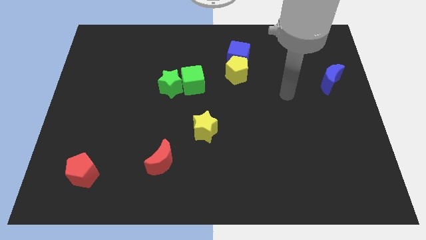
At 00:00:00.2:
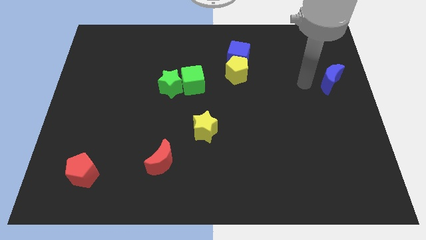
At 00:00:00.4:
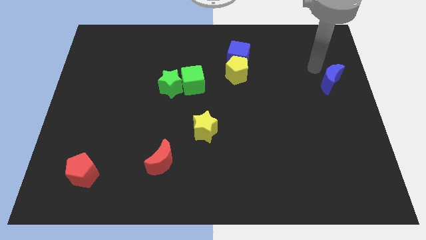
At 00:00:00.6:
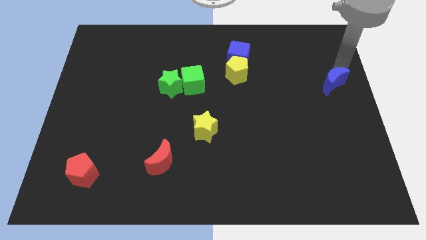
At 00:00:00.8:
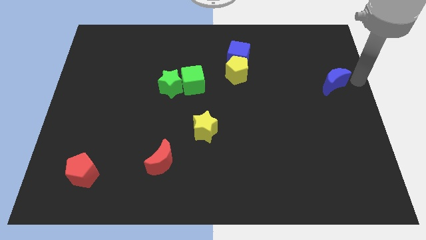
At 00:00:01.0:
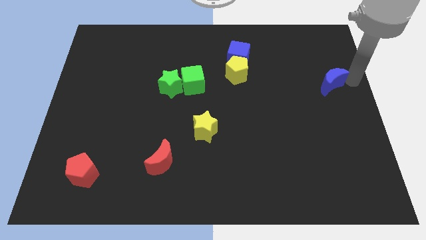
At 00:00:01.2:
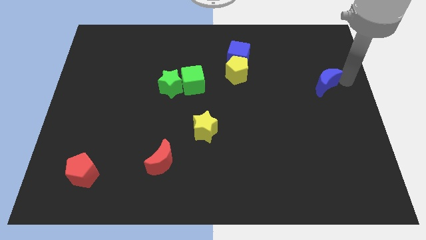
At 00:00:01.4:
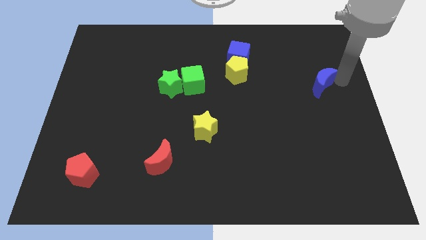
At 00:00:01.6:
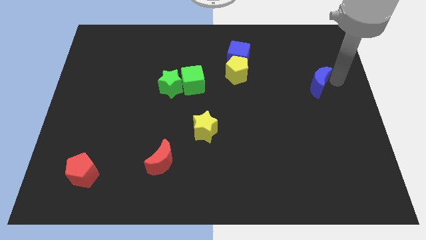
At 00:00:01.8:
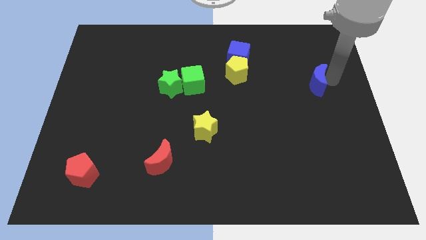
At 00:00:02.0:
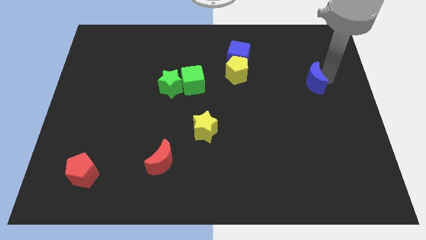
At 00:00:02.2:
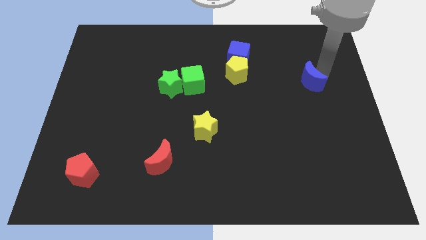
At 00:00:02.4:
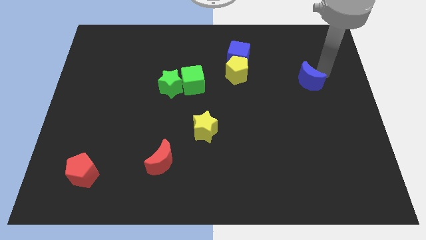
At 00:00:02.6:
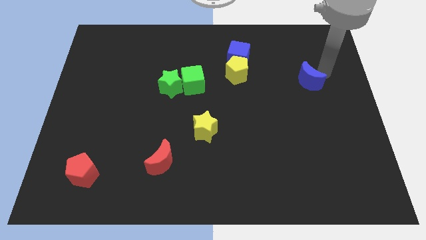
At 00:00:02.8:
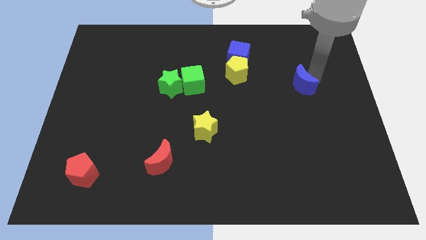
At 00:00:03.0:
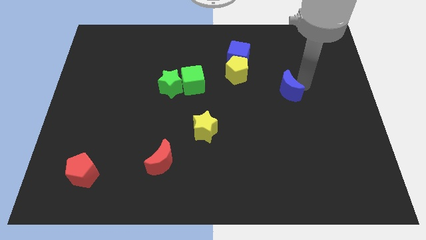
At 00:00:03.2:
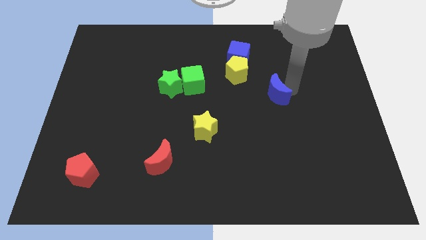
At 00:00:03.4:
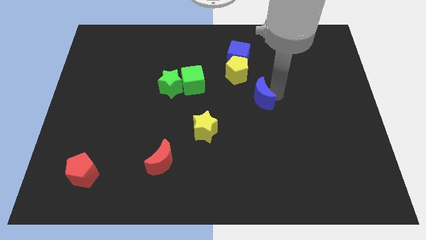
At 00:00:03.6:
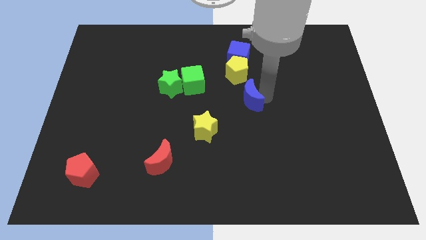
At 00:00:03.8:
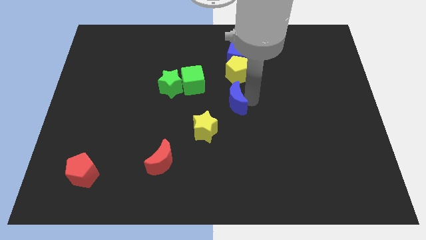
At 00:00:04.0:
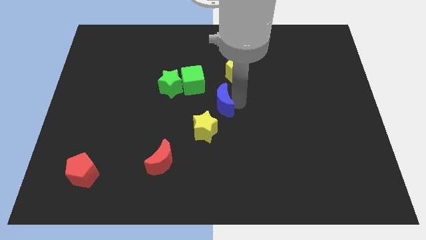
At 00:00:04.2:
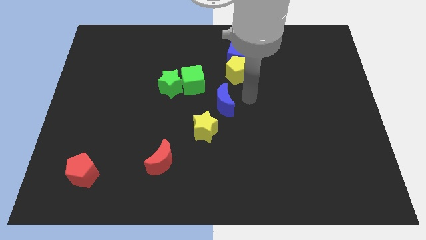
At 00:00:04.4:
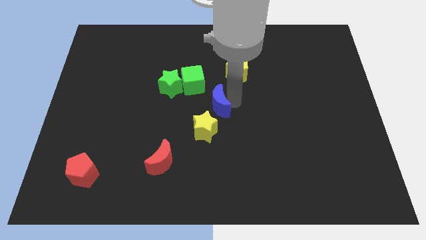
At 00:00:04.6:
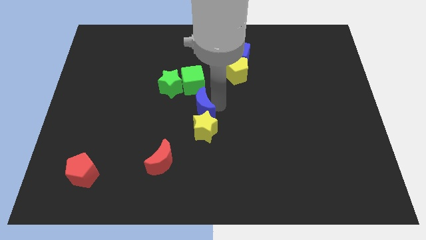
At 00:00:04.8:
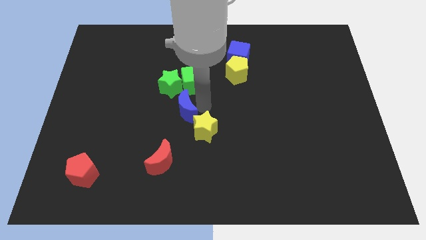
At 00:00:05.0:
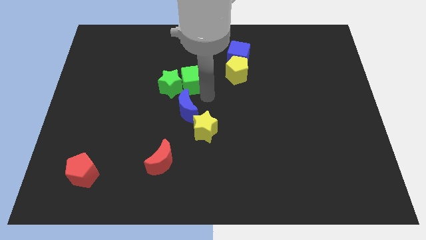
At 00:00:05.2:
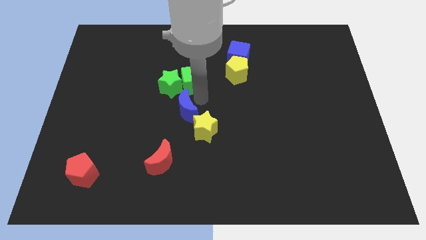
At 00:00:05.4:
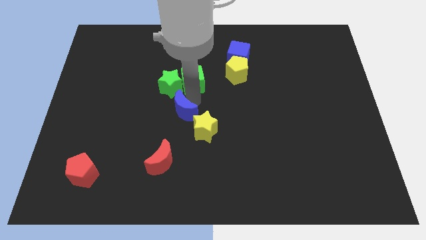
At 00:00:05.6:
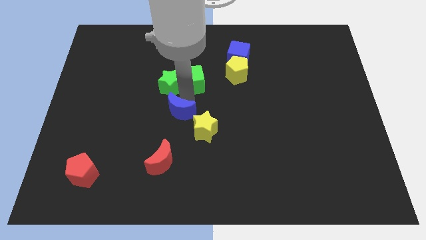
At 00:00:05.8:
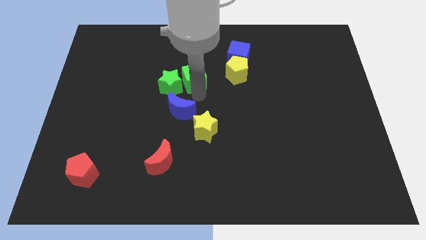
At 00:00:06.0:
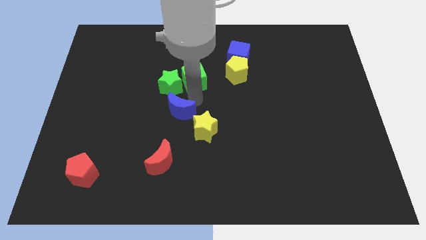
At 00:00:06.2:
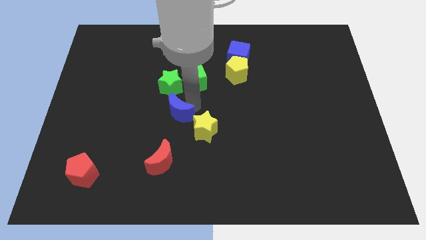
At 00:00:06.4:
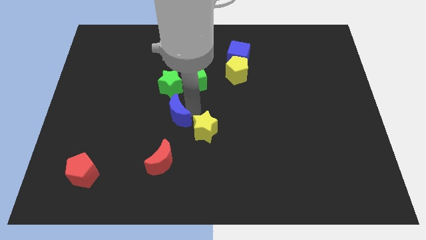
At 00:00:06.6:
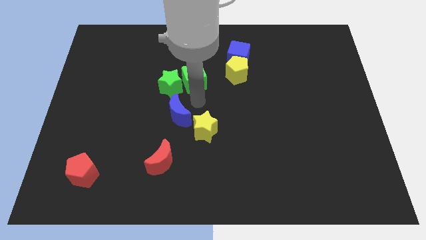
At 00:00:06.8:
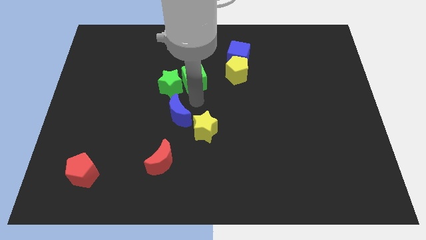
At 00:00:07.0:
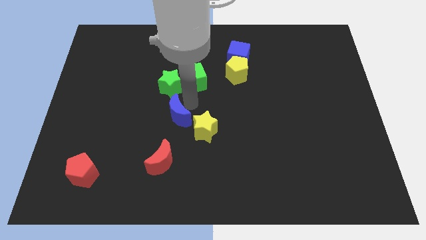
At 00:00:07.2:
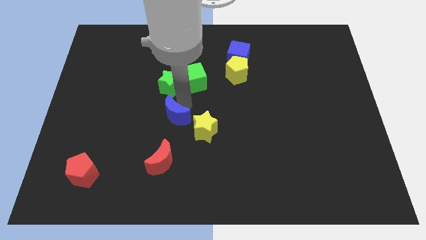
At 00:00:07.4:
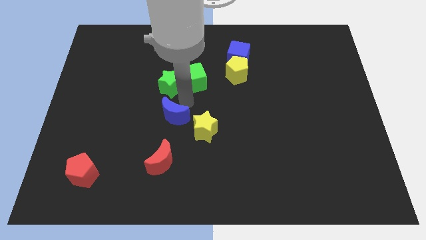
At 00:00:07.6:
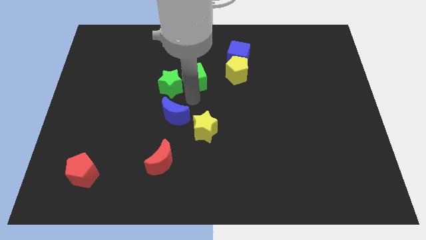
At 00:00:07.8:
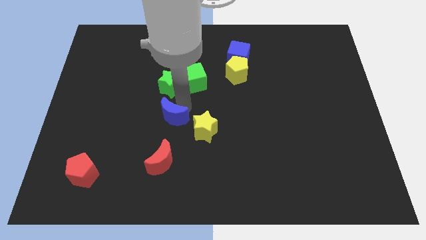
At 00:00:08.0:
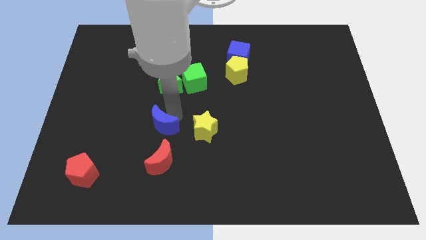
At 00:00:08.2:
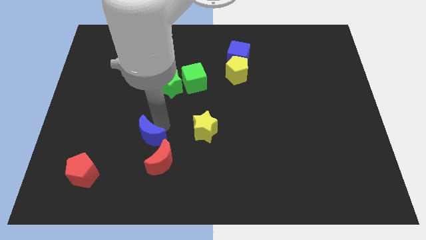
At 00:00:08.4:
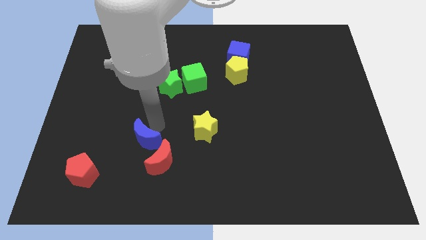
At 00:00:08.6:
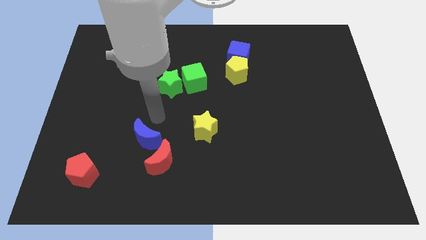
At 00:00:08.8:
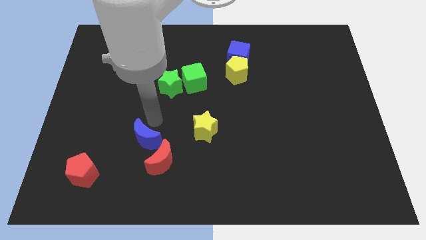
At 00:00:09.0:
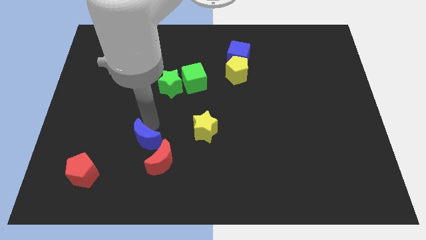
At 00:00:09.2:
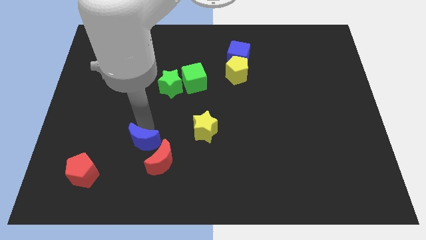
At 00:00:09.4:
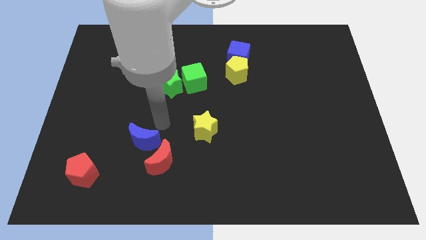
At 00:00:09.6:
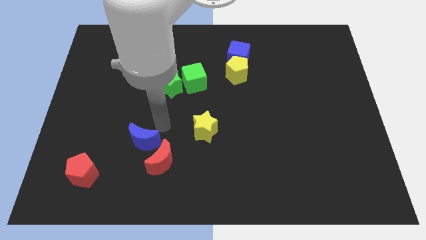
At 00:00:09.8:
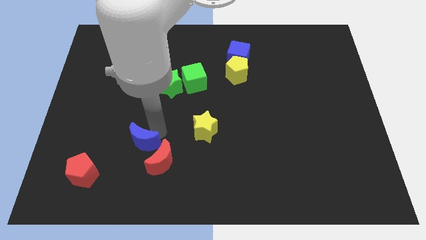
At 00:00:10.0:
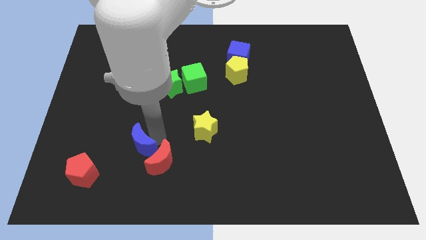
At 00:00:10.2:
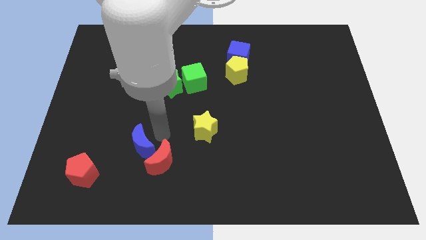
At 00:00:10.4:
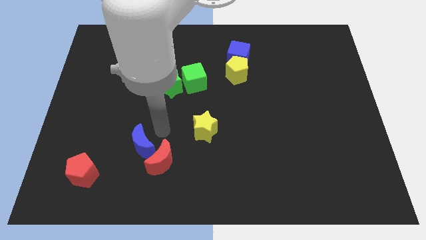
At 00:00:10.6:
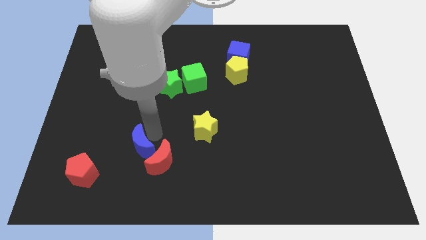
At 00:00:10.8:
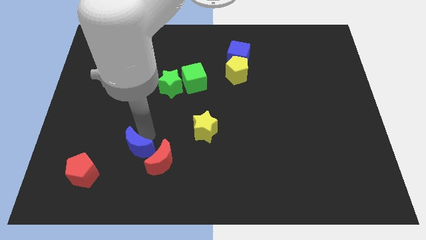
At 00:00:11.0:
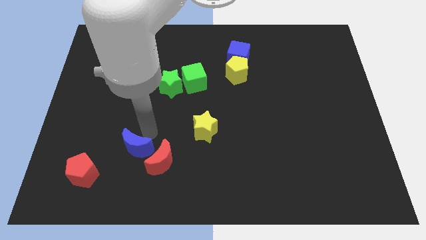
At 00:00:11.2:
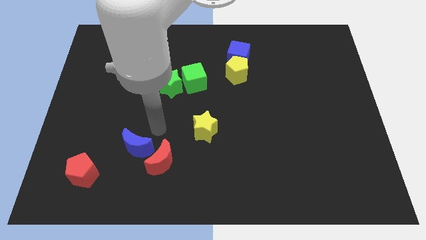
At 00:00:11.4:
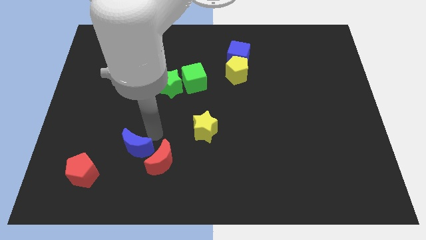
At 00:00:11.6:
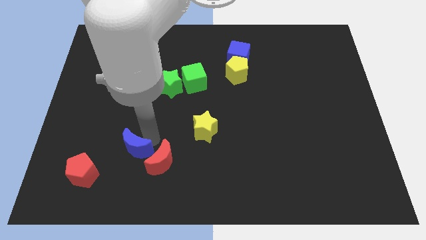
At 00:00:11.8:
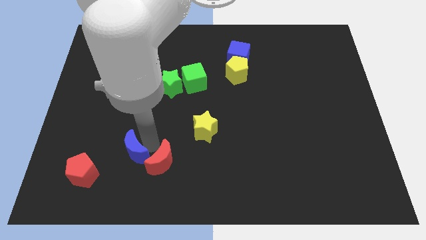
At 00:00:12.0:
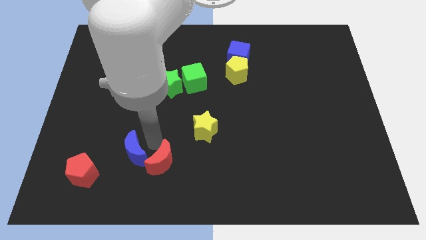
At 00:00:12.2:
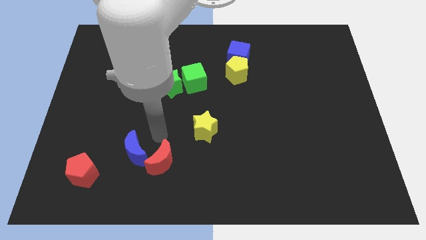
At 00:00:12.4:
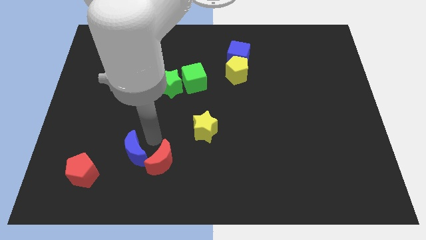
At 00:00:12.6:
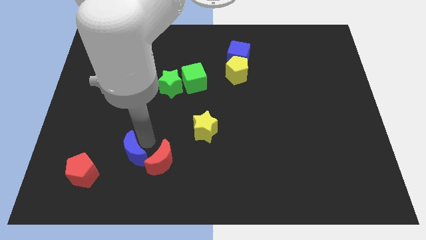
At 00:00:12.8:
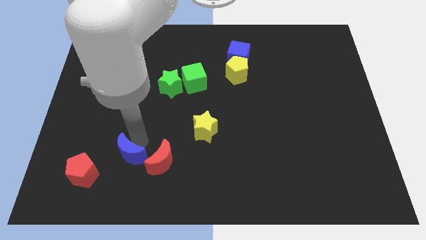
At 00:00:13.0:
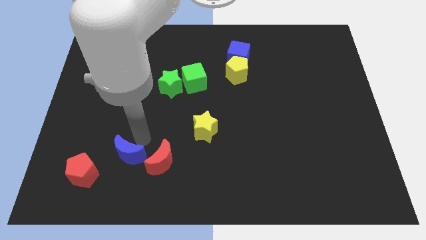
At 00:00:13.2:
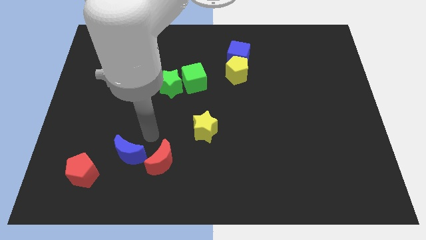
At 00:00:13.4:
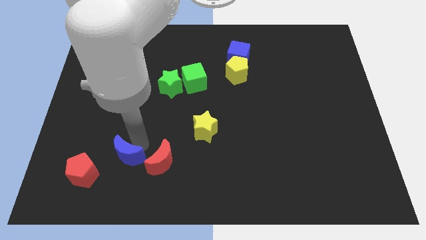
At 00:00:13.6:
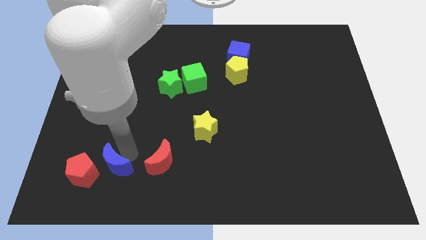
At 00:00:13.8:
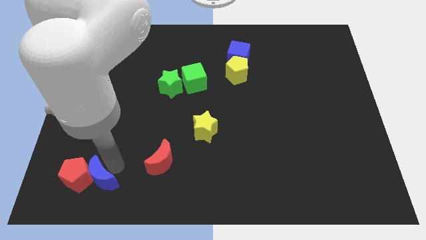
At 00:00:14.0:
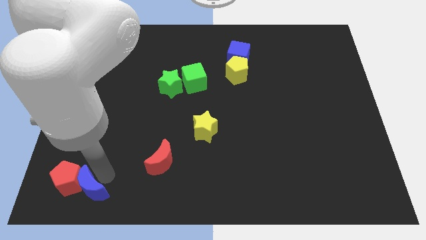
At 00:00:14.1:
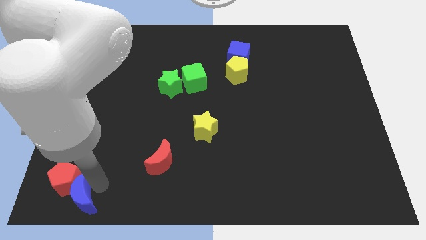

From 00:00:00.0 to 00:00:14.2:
slide the blue moon to the bottom left
